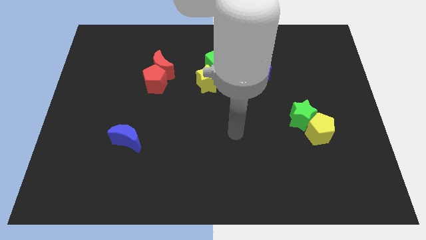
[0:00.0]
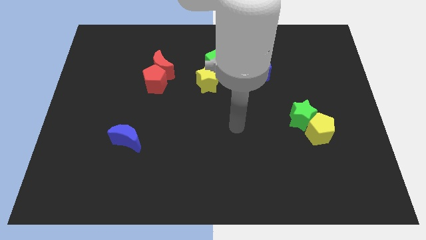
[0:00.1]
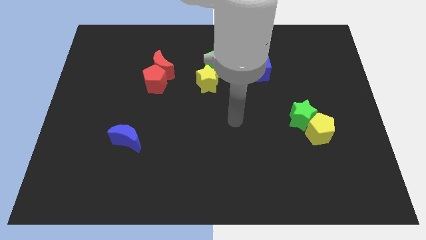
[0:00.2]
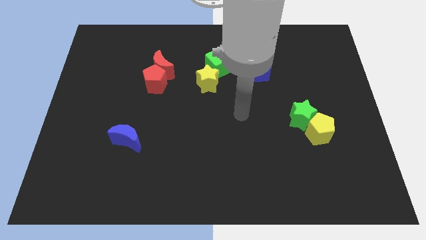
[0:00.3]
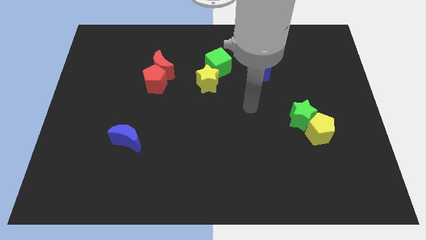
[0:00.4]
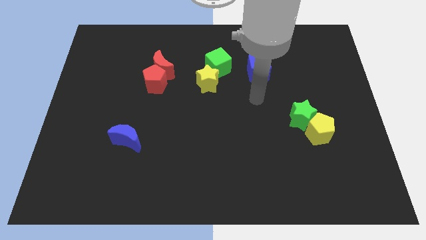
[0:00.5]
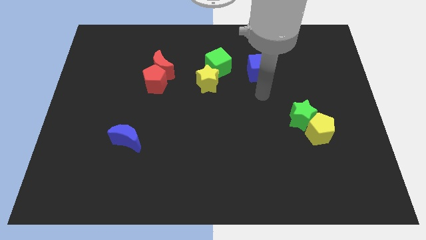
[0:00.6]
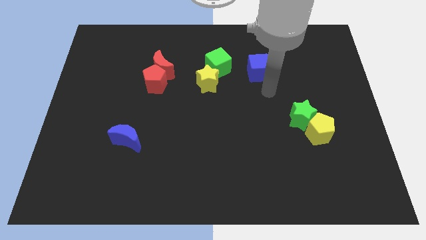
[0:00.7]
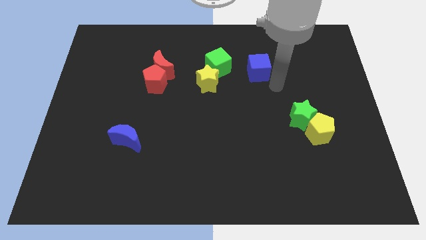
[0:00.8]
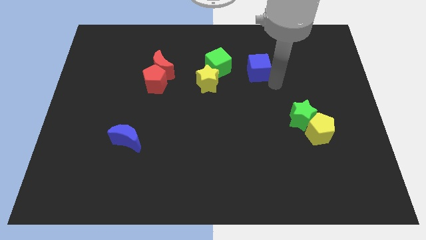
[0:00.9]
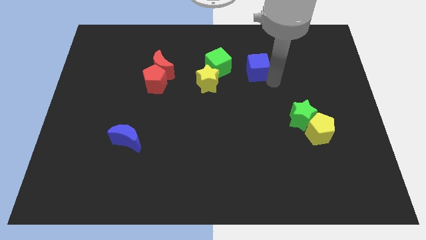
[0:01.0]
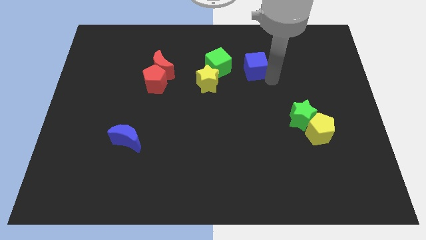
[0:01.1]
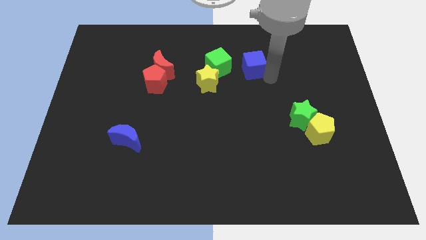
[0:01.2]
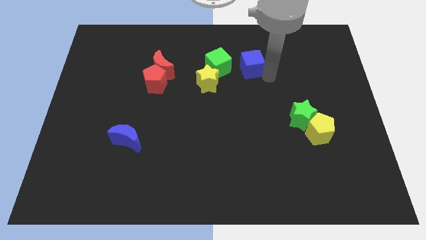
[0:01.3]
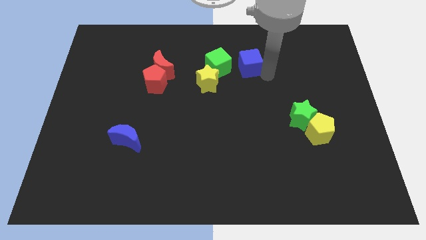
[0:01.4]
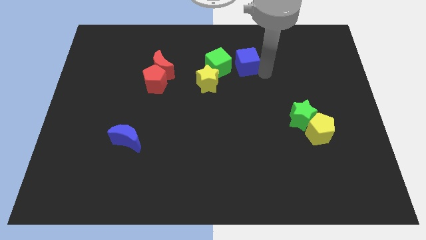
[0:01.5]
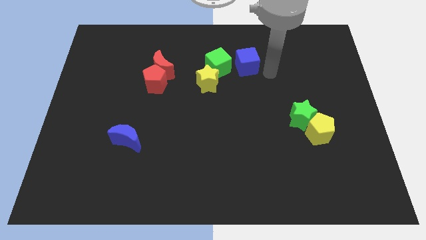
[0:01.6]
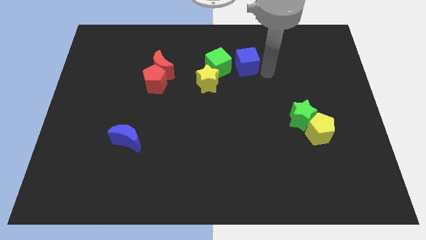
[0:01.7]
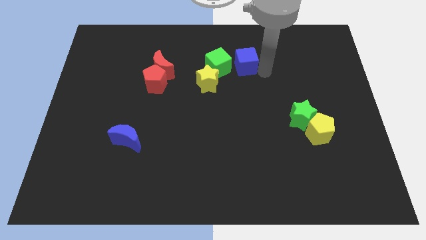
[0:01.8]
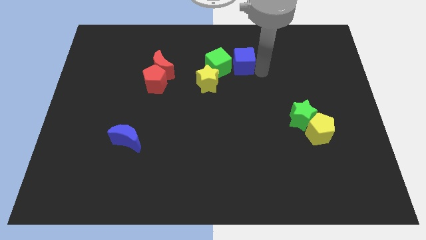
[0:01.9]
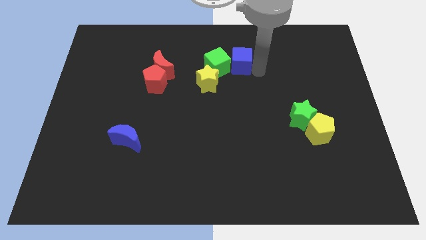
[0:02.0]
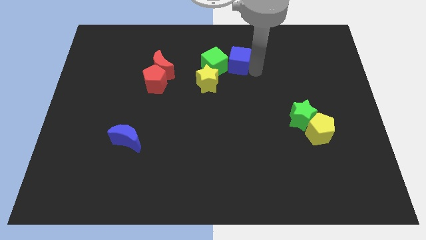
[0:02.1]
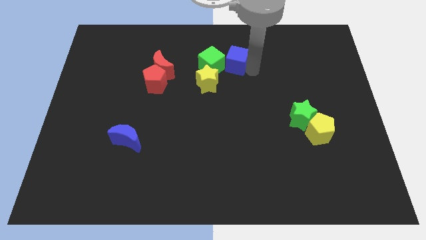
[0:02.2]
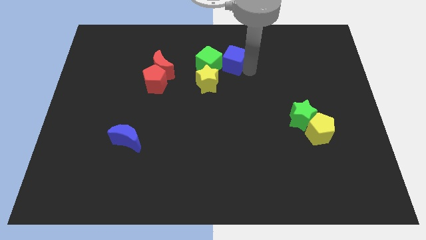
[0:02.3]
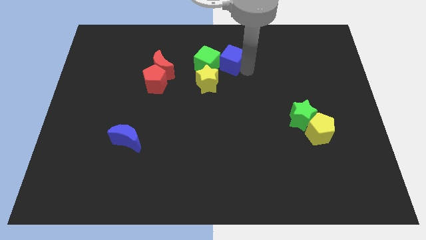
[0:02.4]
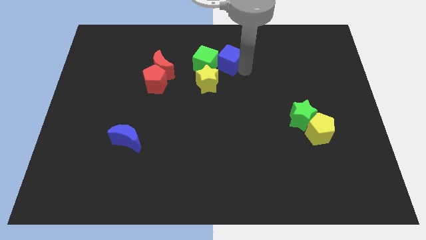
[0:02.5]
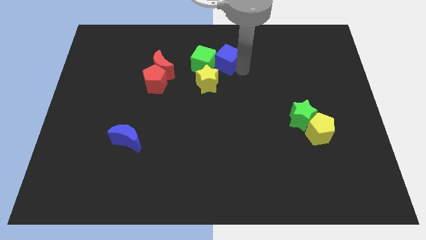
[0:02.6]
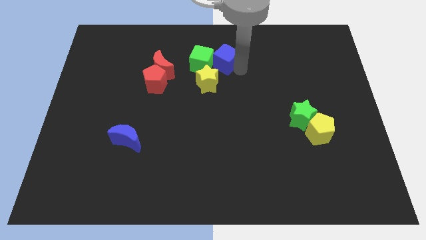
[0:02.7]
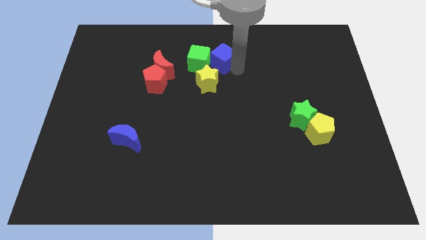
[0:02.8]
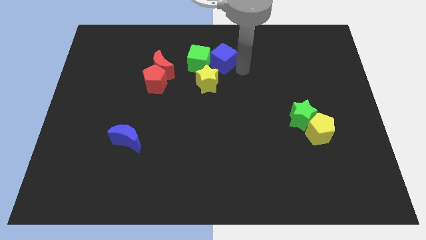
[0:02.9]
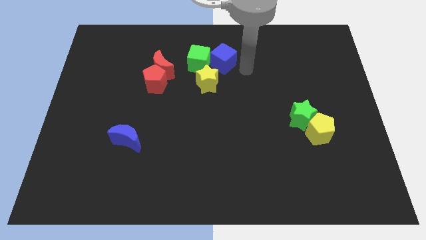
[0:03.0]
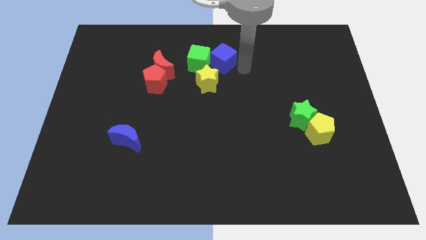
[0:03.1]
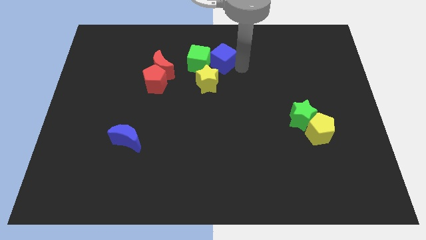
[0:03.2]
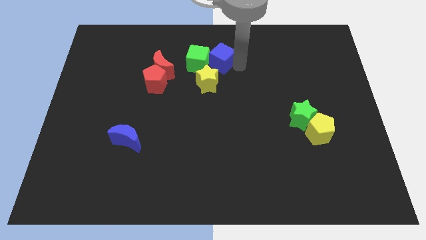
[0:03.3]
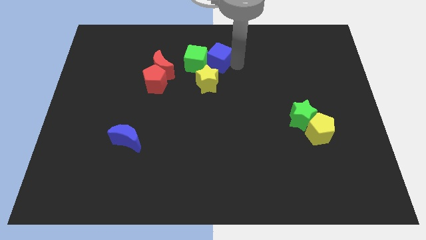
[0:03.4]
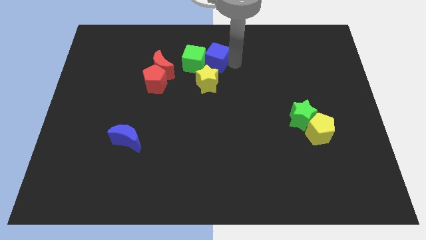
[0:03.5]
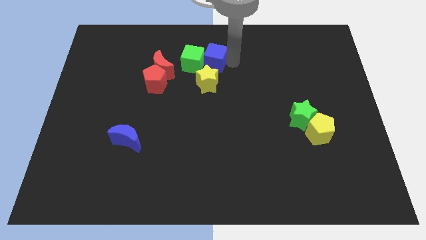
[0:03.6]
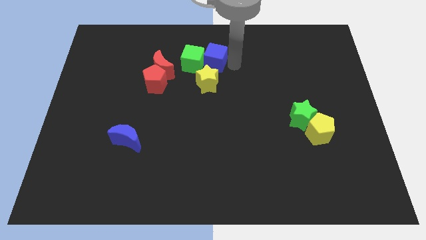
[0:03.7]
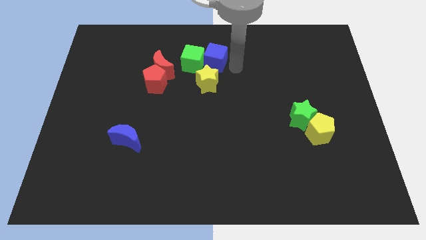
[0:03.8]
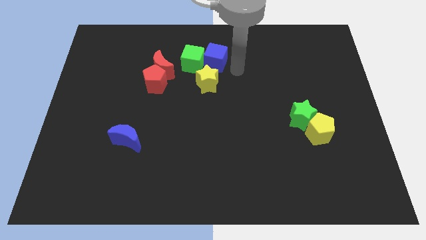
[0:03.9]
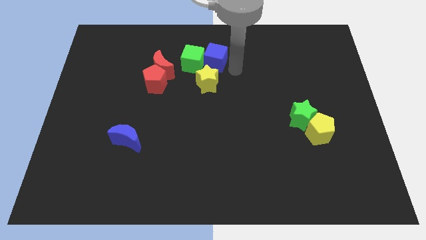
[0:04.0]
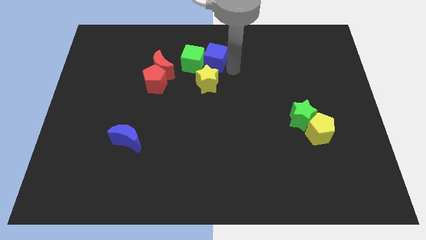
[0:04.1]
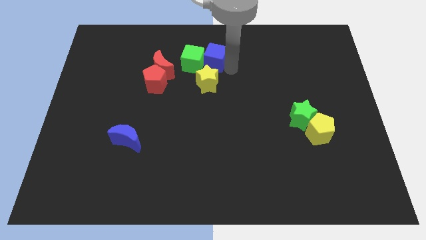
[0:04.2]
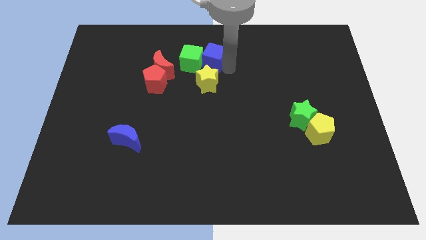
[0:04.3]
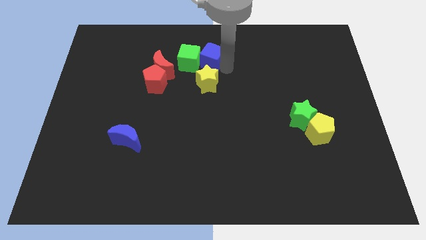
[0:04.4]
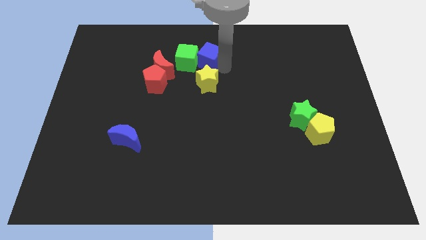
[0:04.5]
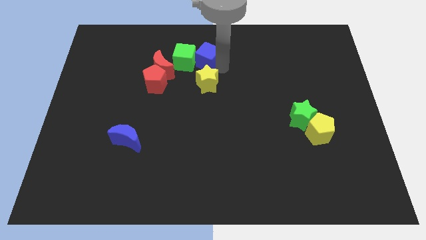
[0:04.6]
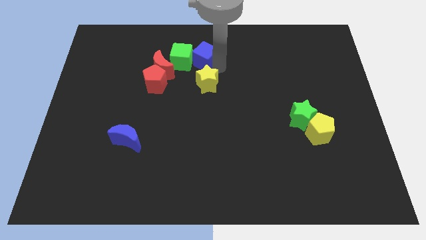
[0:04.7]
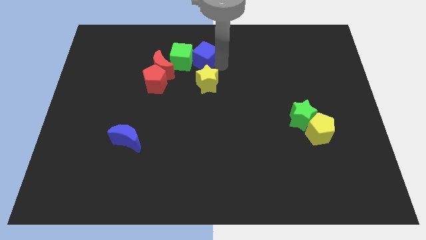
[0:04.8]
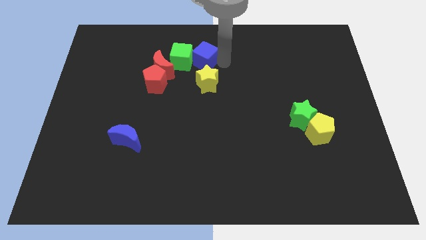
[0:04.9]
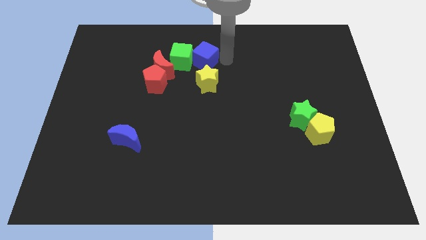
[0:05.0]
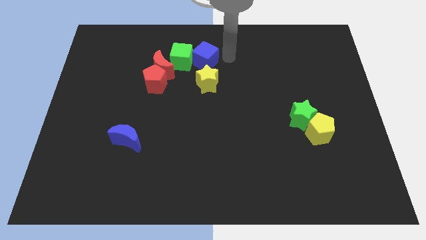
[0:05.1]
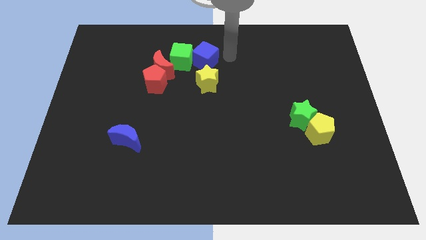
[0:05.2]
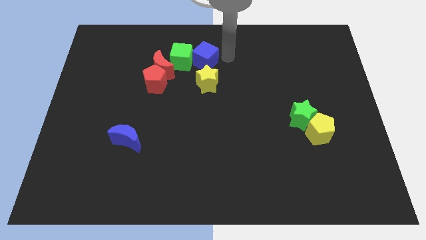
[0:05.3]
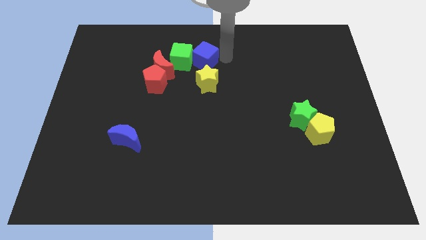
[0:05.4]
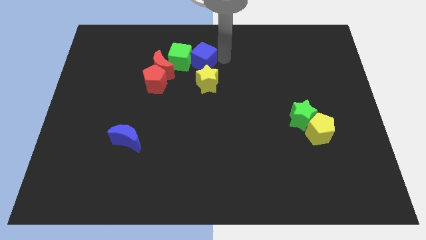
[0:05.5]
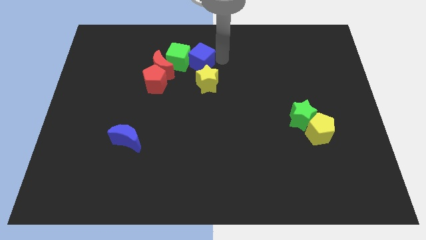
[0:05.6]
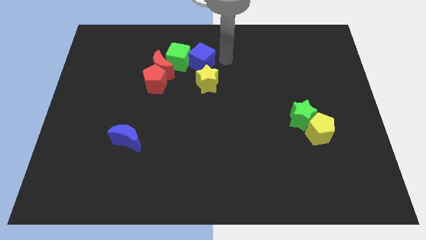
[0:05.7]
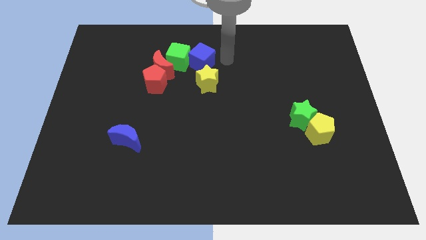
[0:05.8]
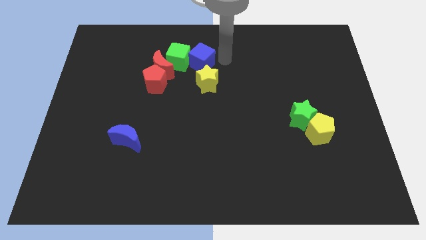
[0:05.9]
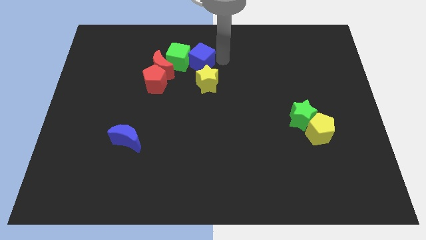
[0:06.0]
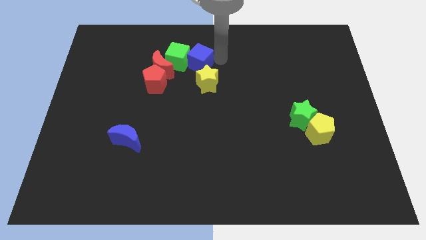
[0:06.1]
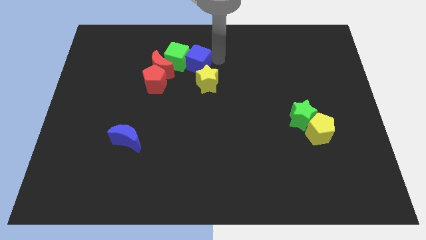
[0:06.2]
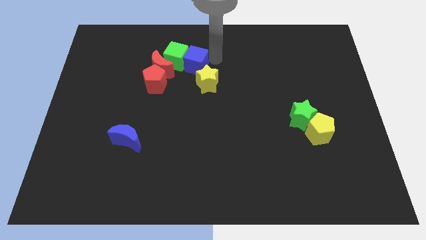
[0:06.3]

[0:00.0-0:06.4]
slide the blue cube to the top right side of the red pentagon
